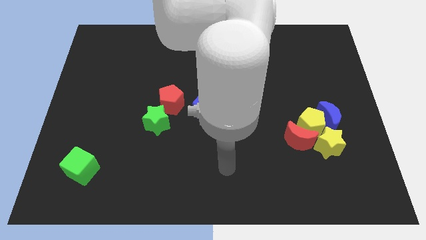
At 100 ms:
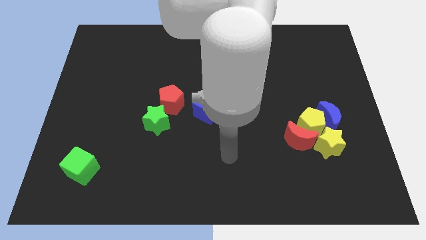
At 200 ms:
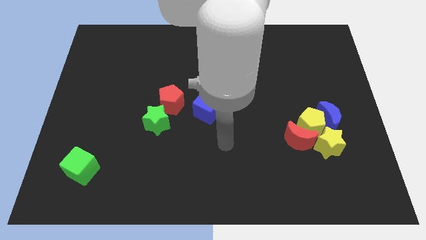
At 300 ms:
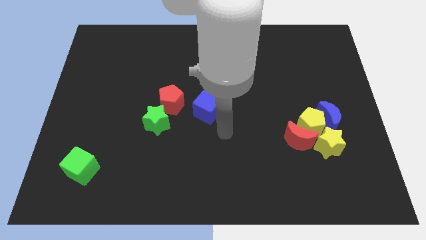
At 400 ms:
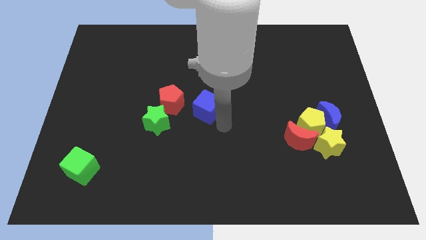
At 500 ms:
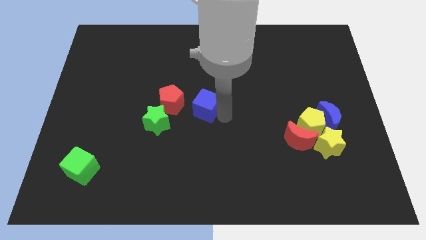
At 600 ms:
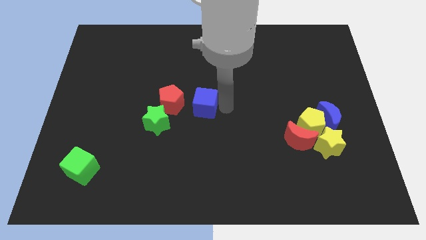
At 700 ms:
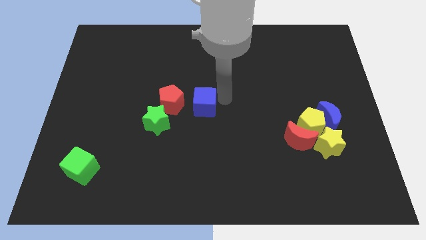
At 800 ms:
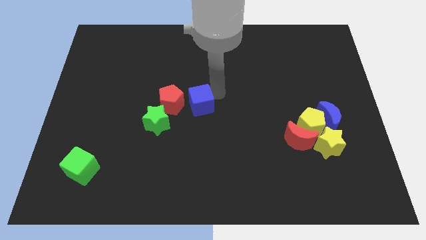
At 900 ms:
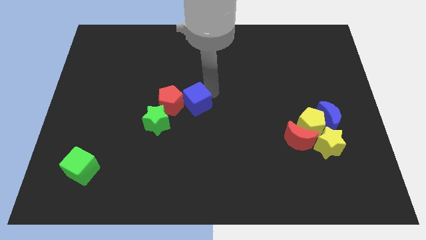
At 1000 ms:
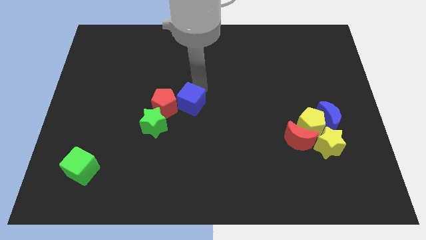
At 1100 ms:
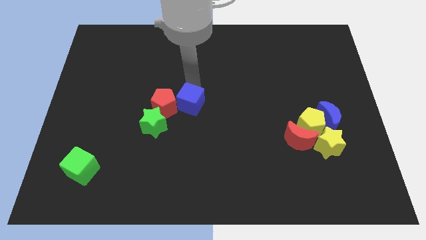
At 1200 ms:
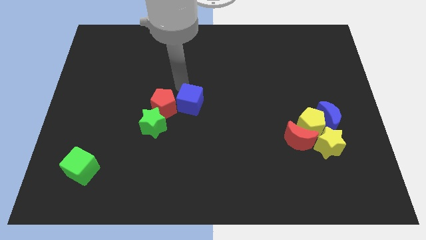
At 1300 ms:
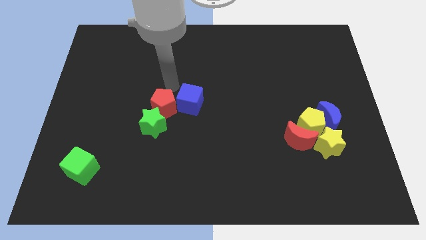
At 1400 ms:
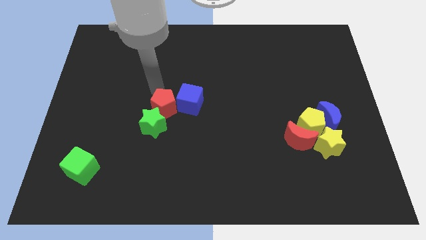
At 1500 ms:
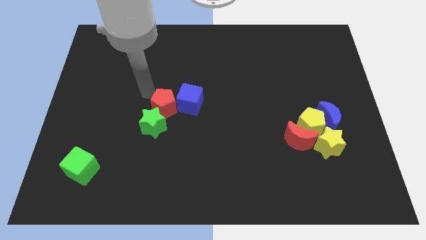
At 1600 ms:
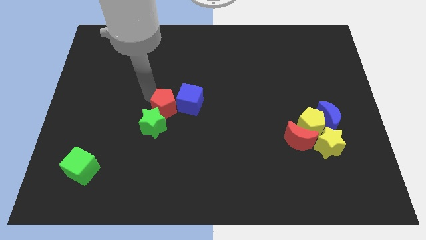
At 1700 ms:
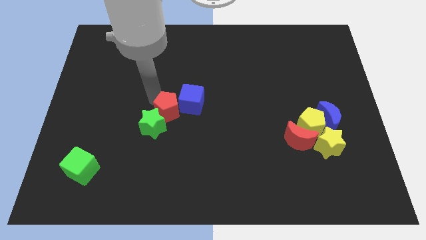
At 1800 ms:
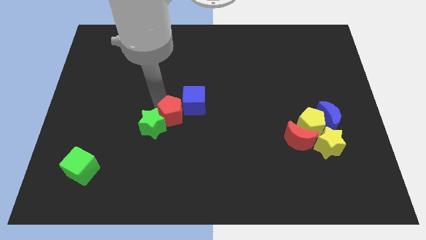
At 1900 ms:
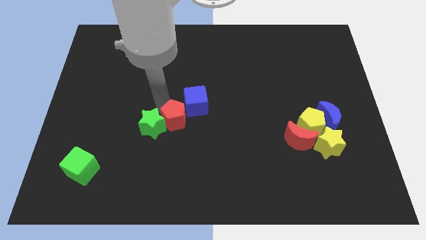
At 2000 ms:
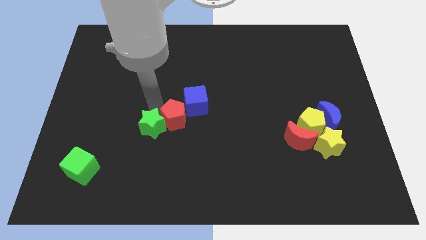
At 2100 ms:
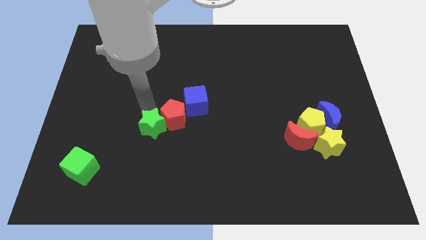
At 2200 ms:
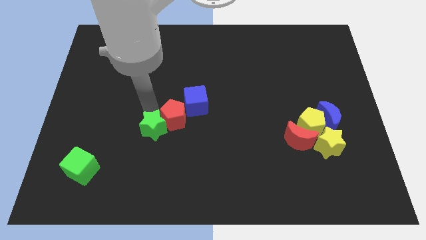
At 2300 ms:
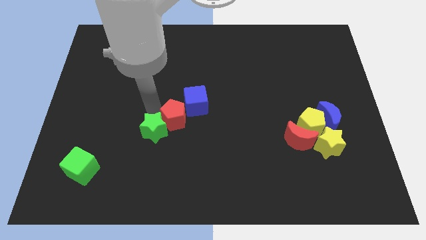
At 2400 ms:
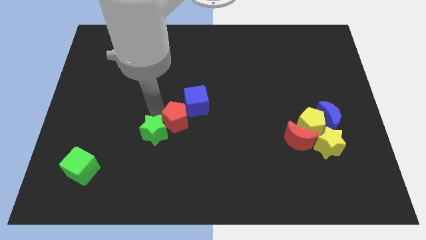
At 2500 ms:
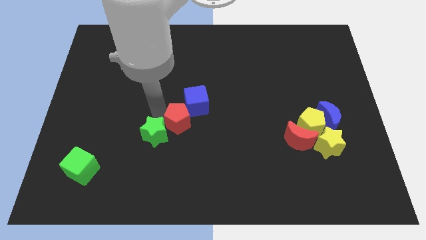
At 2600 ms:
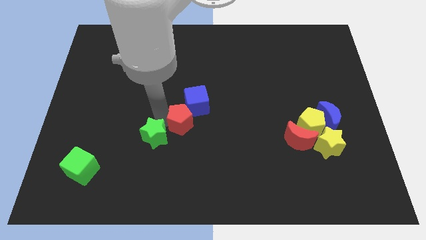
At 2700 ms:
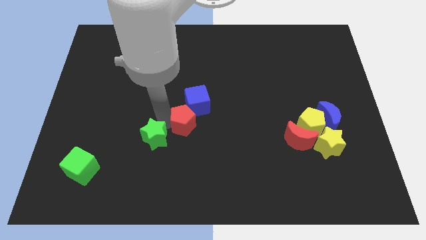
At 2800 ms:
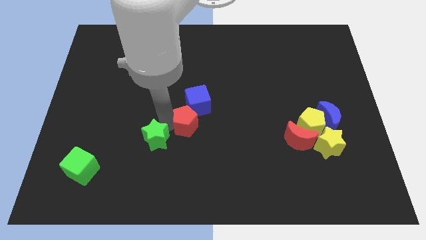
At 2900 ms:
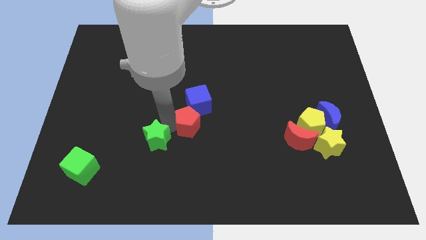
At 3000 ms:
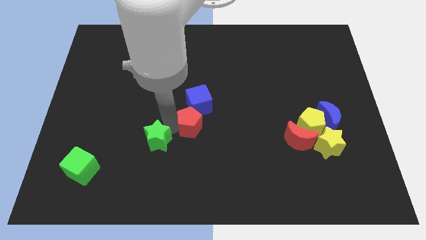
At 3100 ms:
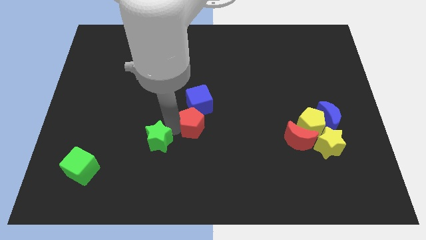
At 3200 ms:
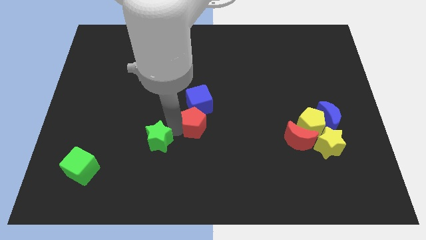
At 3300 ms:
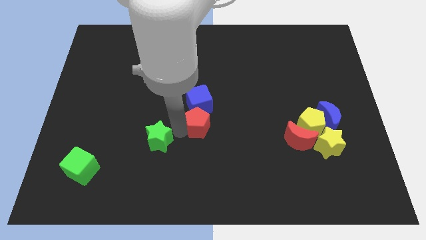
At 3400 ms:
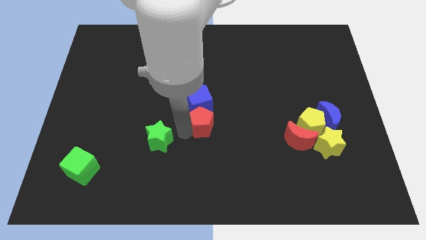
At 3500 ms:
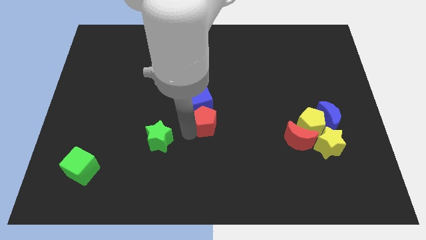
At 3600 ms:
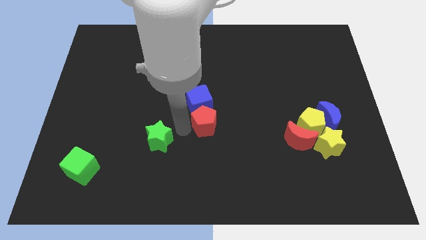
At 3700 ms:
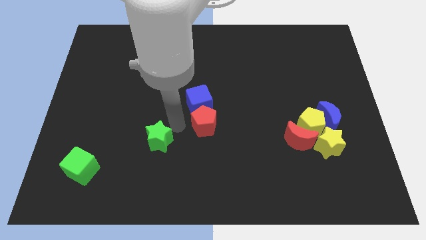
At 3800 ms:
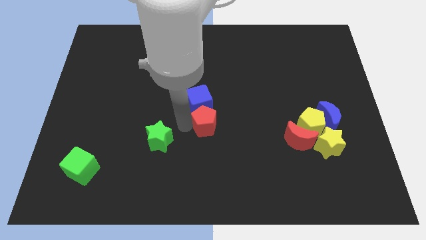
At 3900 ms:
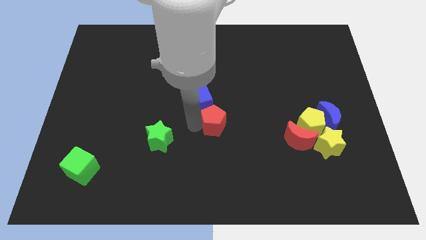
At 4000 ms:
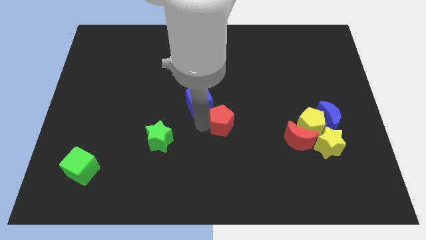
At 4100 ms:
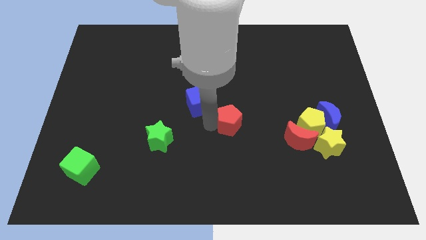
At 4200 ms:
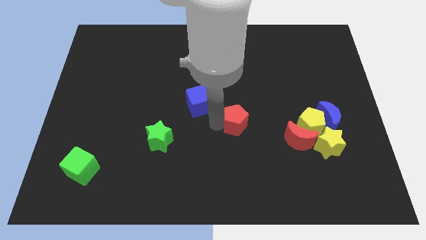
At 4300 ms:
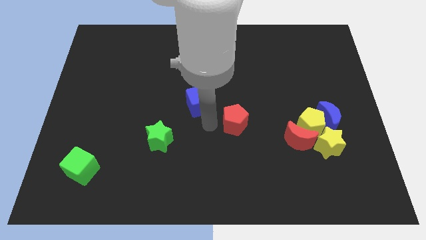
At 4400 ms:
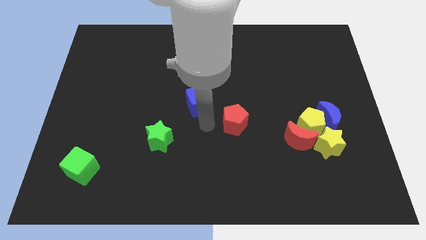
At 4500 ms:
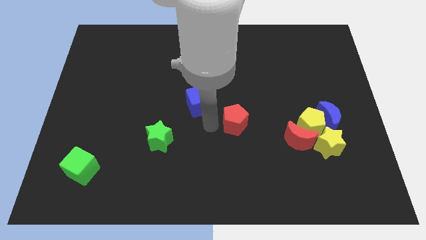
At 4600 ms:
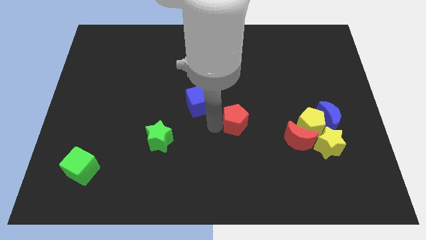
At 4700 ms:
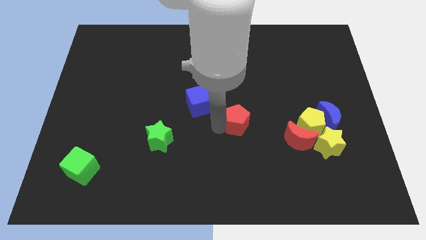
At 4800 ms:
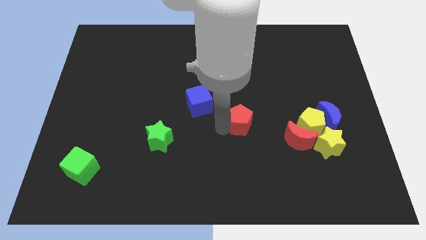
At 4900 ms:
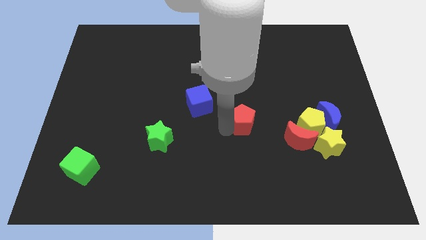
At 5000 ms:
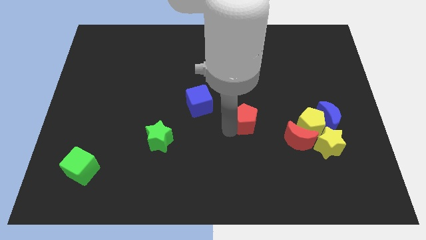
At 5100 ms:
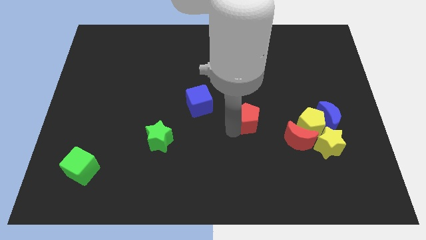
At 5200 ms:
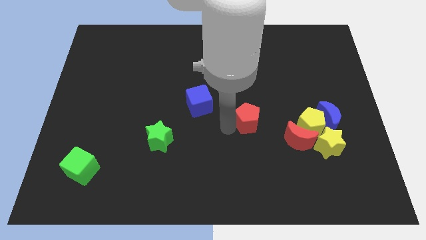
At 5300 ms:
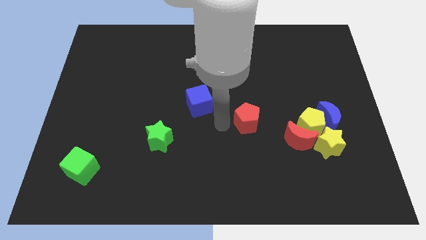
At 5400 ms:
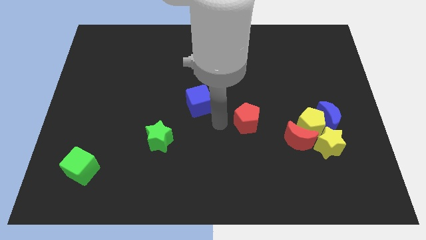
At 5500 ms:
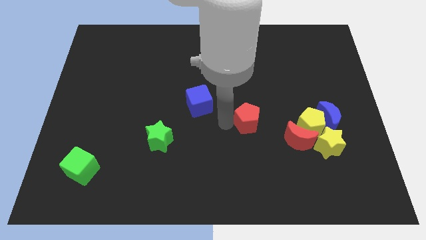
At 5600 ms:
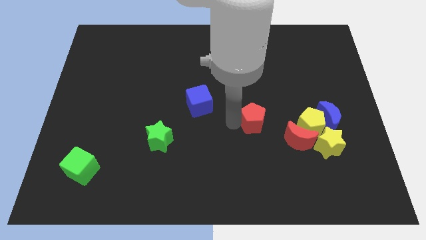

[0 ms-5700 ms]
push the red pentagon diagonally up and to the left of the red moon

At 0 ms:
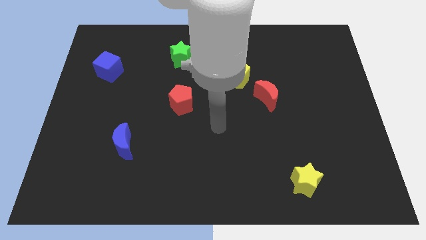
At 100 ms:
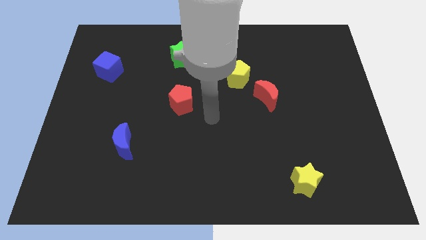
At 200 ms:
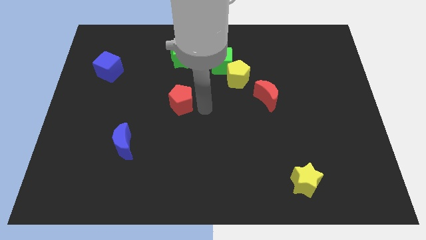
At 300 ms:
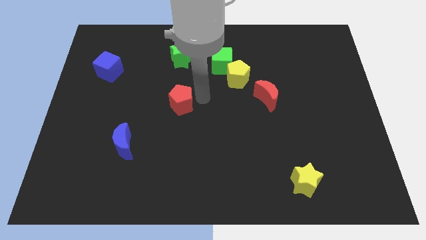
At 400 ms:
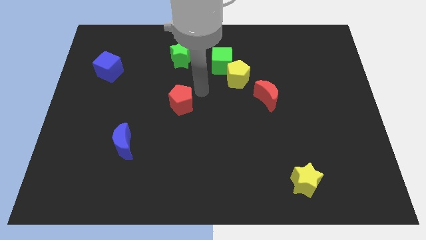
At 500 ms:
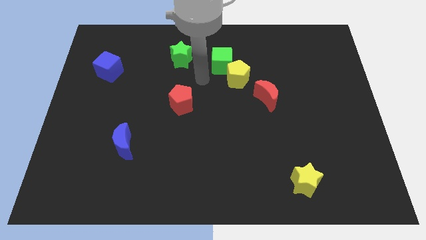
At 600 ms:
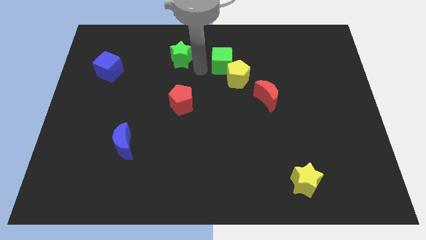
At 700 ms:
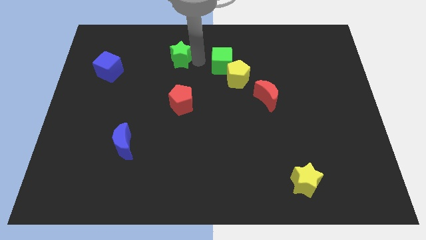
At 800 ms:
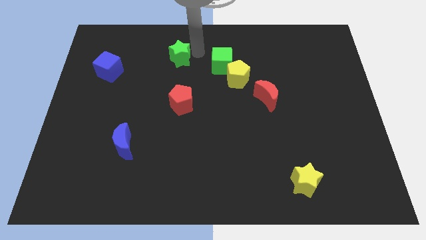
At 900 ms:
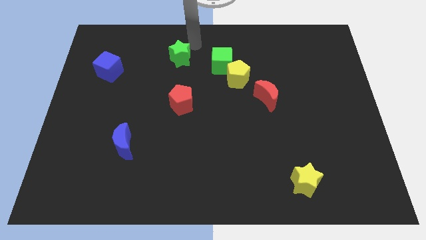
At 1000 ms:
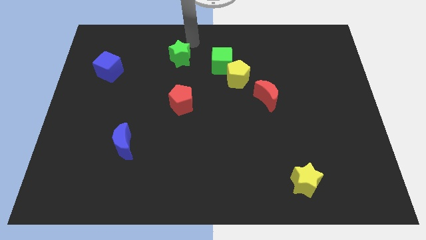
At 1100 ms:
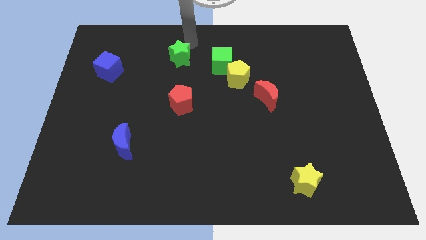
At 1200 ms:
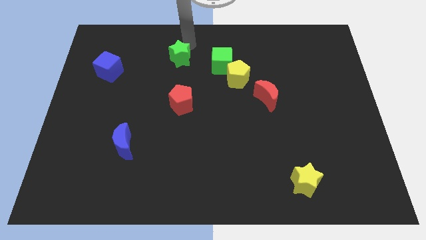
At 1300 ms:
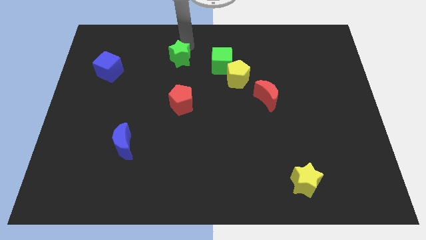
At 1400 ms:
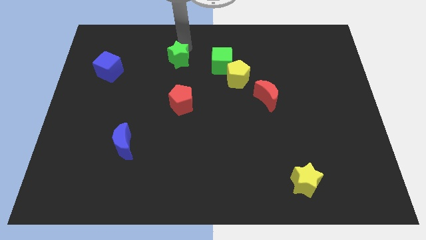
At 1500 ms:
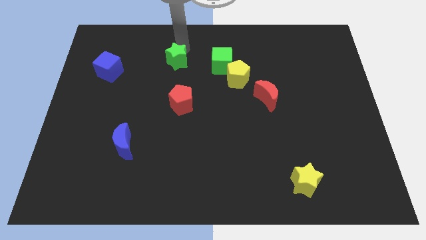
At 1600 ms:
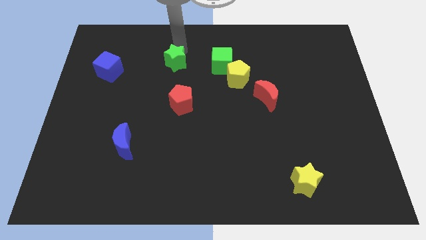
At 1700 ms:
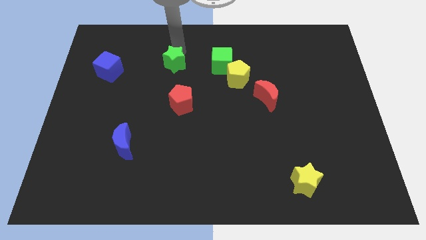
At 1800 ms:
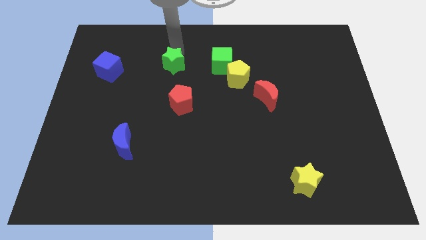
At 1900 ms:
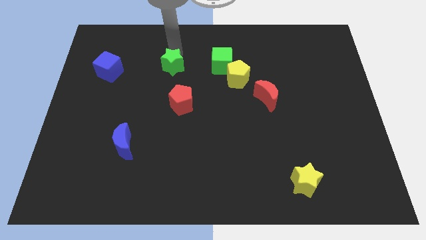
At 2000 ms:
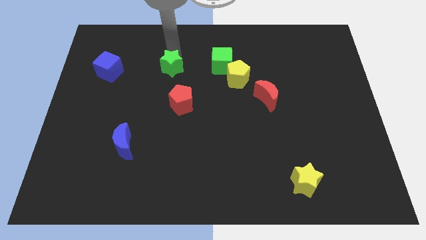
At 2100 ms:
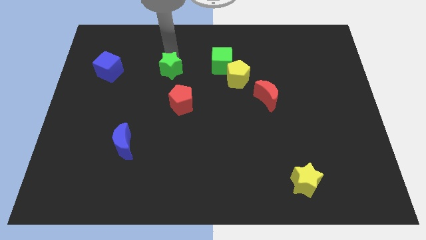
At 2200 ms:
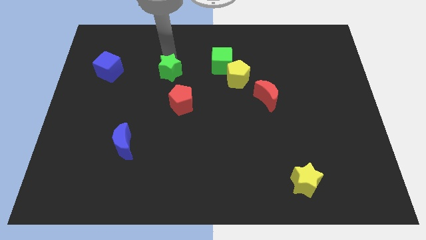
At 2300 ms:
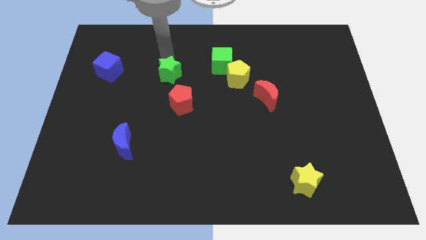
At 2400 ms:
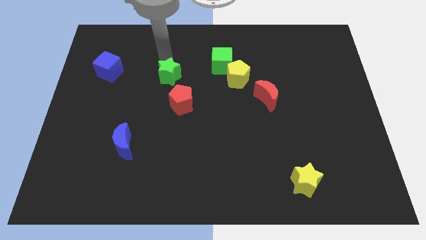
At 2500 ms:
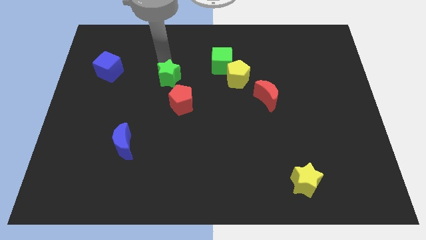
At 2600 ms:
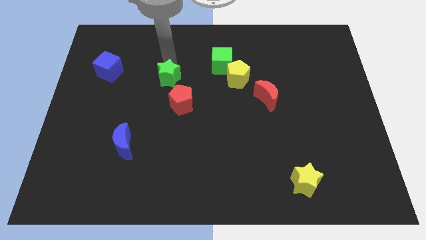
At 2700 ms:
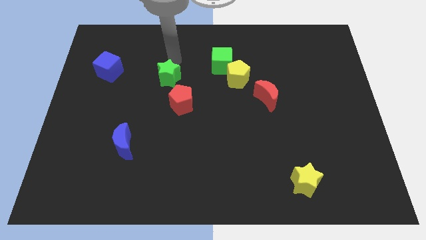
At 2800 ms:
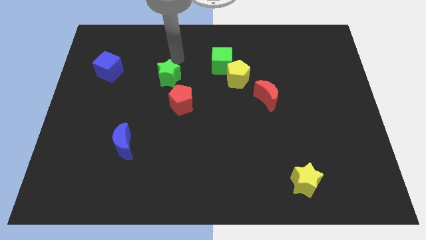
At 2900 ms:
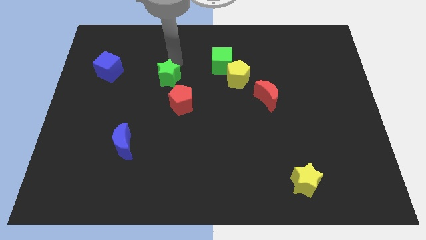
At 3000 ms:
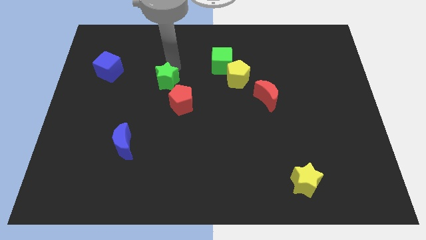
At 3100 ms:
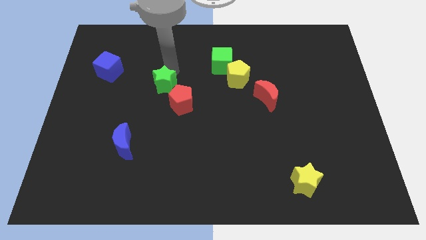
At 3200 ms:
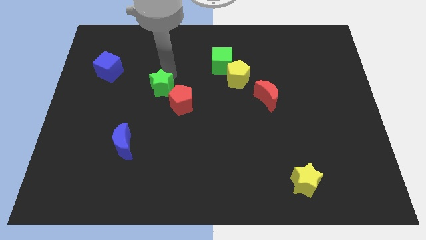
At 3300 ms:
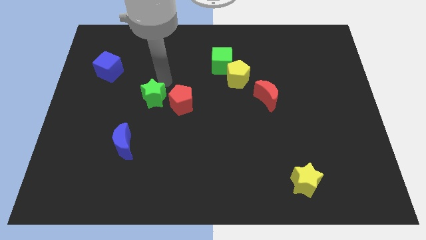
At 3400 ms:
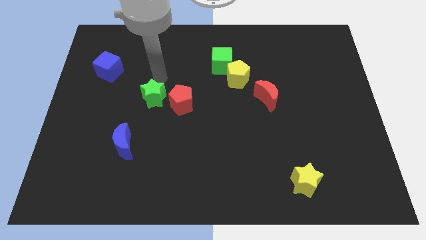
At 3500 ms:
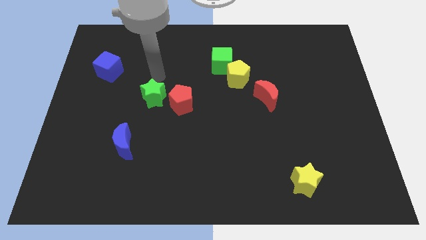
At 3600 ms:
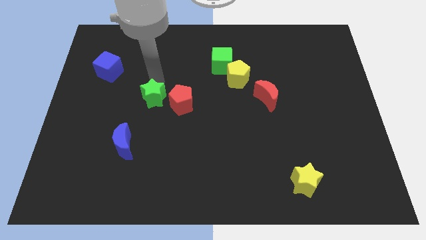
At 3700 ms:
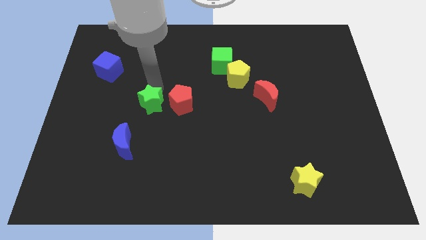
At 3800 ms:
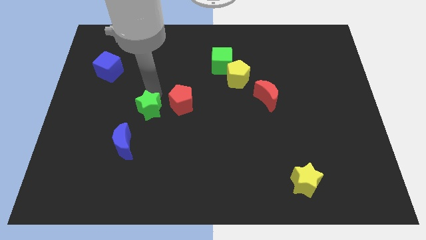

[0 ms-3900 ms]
slide the green star to the top right of the blue moon
